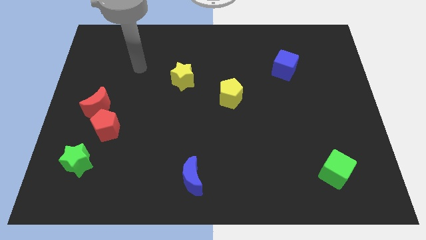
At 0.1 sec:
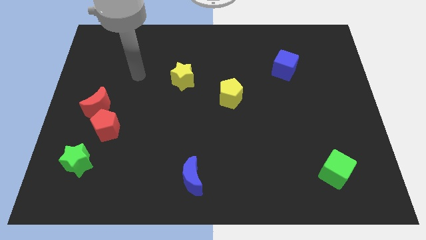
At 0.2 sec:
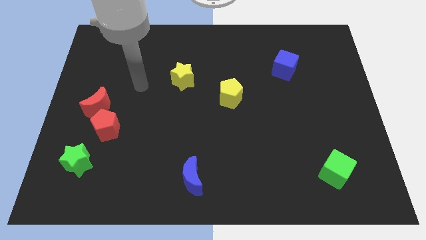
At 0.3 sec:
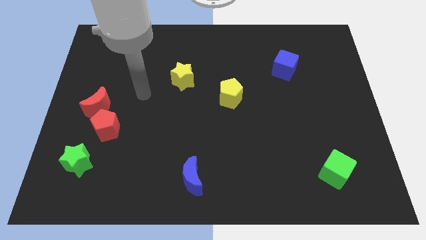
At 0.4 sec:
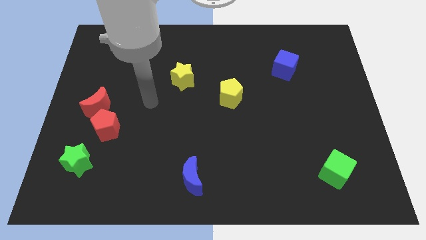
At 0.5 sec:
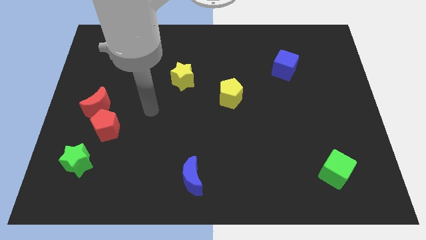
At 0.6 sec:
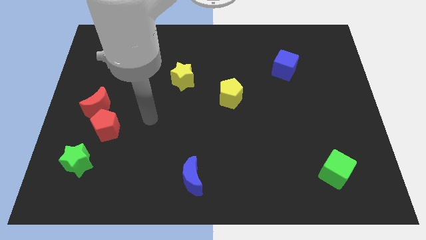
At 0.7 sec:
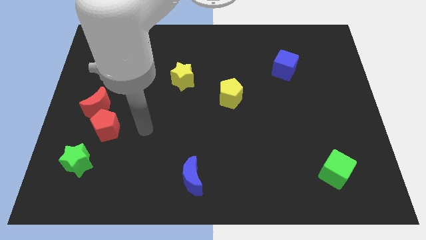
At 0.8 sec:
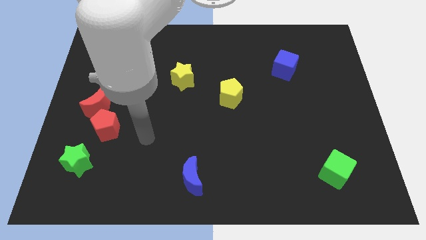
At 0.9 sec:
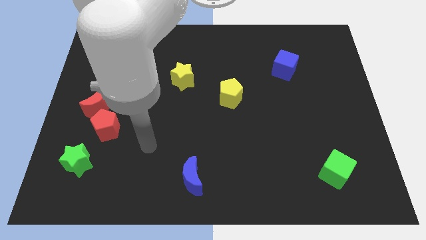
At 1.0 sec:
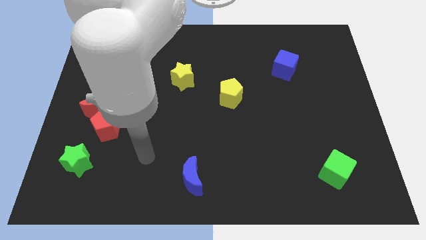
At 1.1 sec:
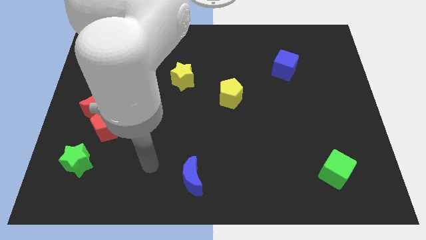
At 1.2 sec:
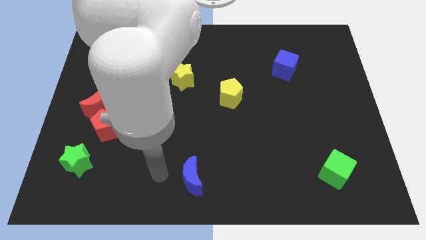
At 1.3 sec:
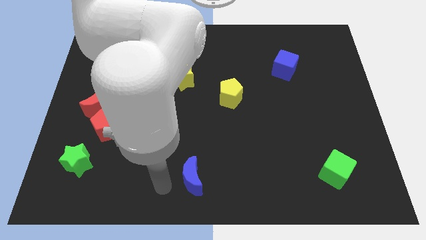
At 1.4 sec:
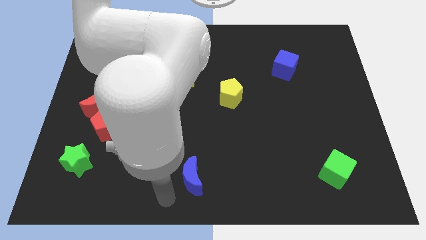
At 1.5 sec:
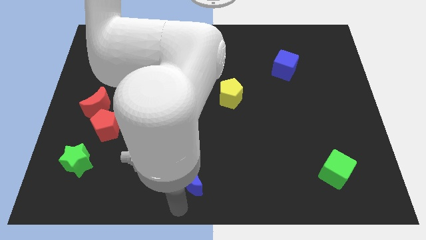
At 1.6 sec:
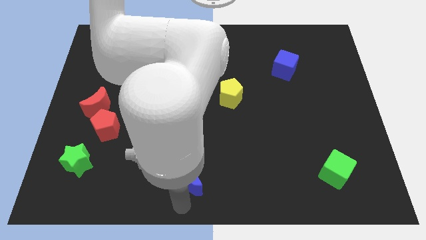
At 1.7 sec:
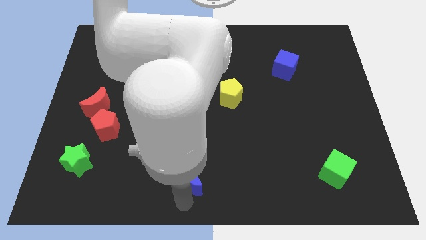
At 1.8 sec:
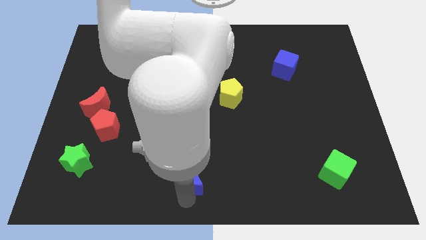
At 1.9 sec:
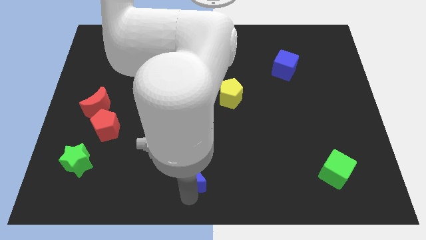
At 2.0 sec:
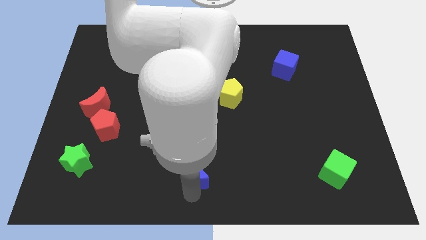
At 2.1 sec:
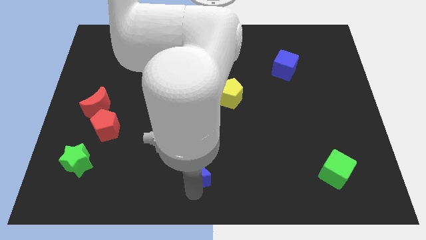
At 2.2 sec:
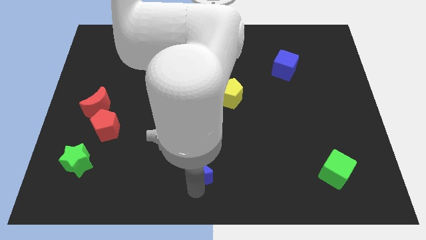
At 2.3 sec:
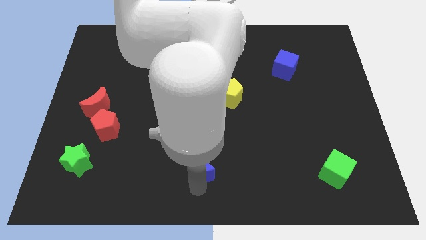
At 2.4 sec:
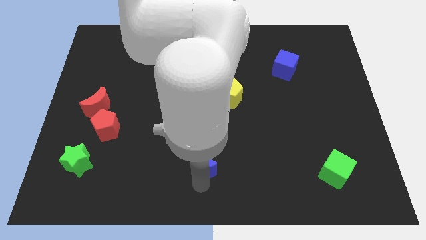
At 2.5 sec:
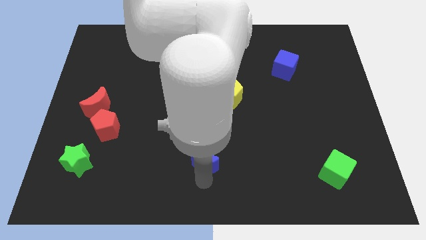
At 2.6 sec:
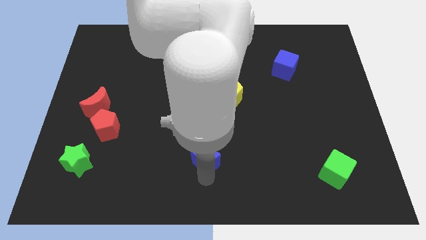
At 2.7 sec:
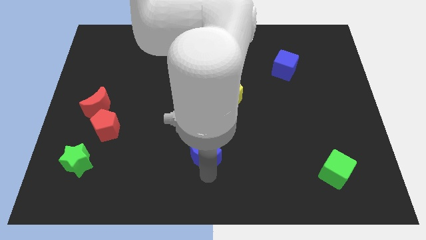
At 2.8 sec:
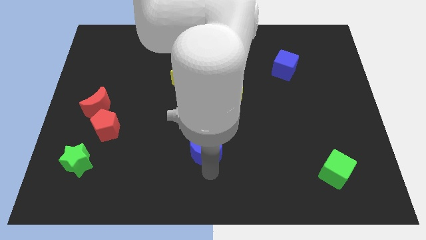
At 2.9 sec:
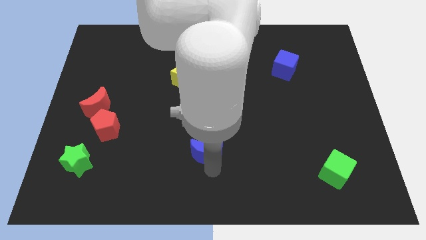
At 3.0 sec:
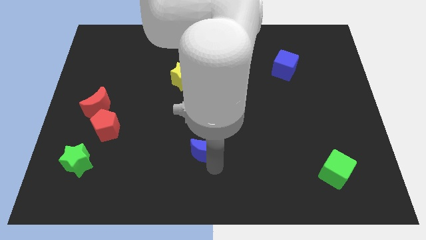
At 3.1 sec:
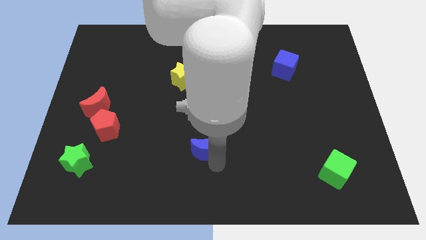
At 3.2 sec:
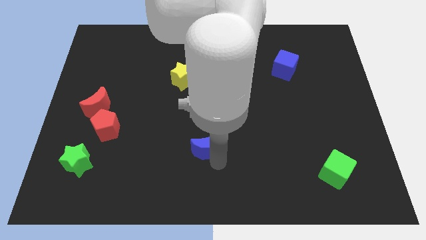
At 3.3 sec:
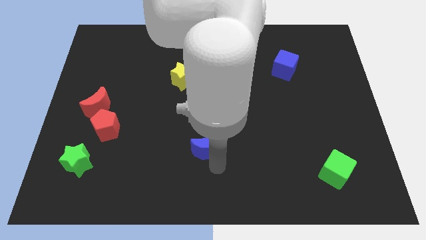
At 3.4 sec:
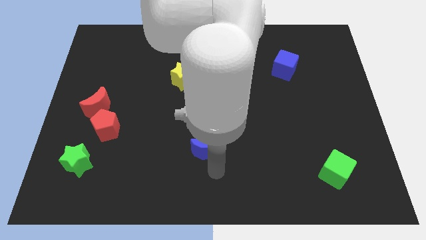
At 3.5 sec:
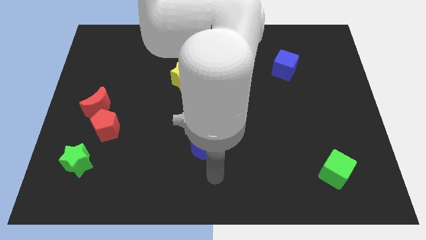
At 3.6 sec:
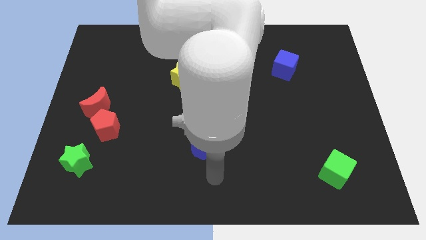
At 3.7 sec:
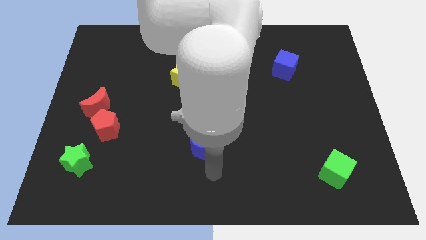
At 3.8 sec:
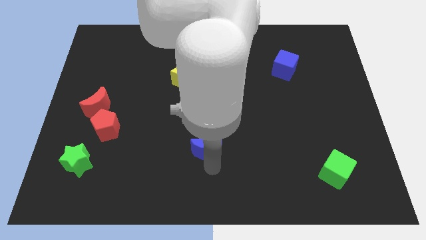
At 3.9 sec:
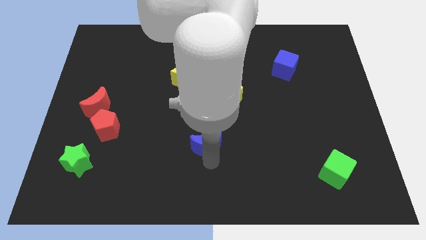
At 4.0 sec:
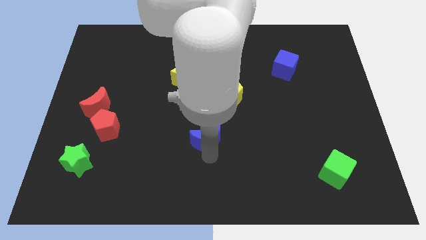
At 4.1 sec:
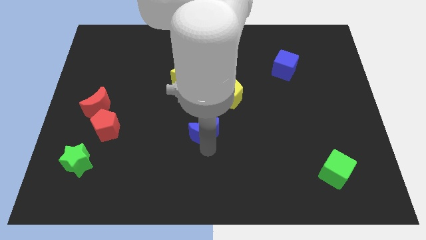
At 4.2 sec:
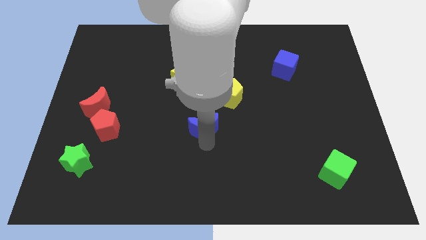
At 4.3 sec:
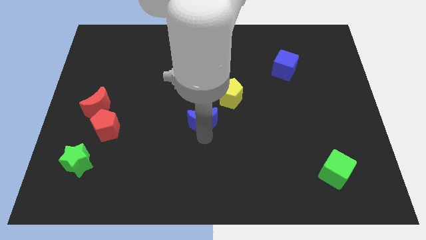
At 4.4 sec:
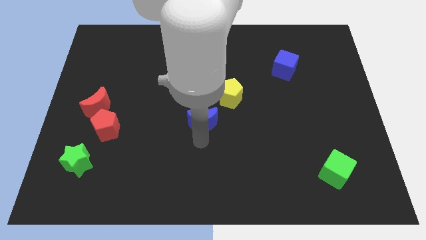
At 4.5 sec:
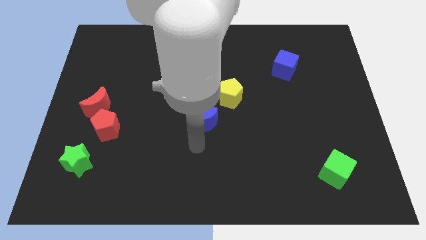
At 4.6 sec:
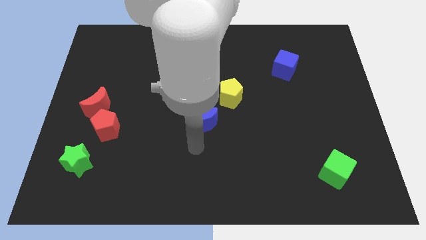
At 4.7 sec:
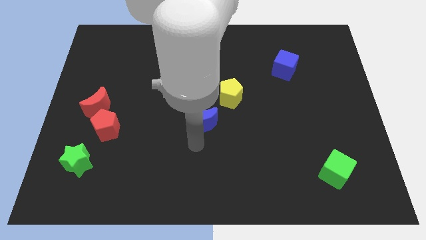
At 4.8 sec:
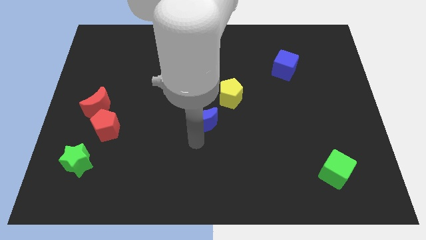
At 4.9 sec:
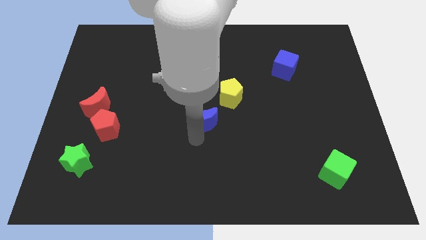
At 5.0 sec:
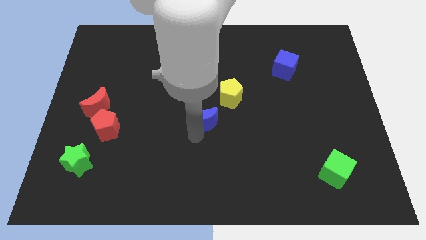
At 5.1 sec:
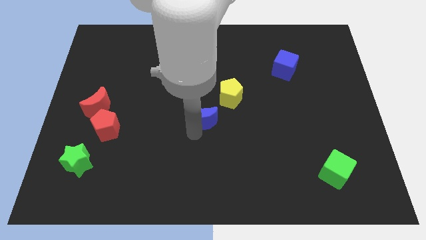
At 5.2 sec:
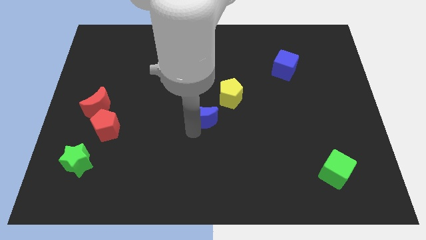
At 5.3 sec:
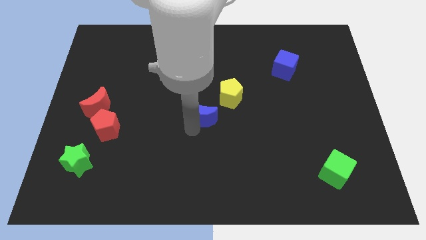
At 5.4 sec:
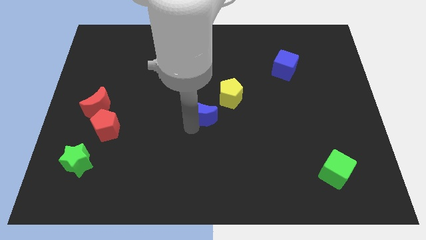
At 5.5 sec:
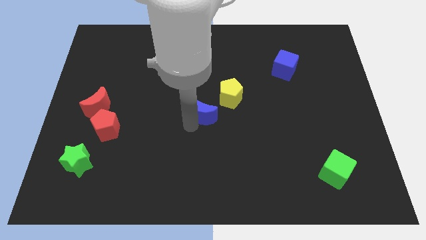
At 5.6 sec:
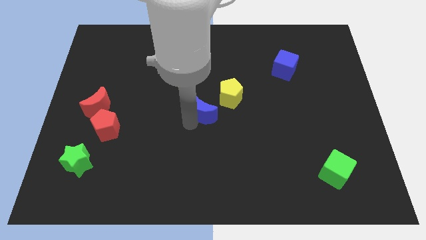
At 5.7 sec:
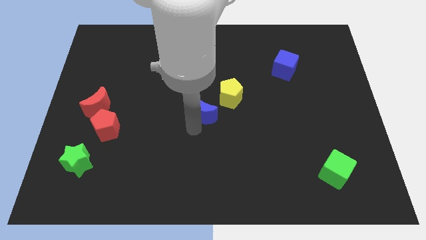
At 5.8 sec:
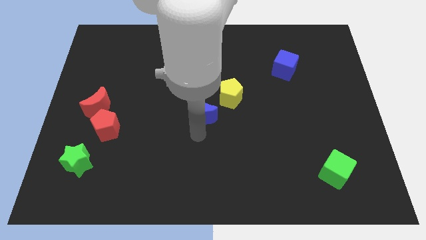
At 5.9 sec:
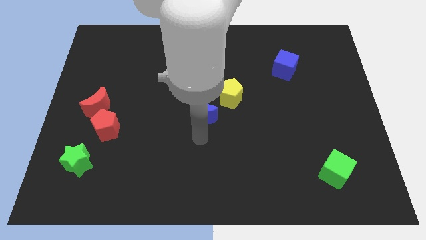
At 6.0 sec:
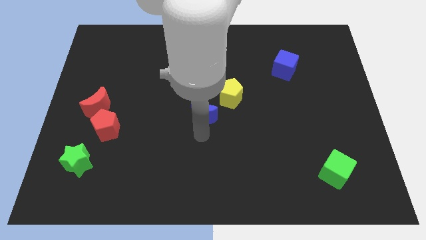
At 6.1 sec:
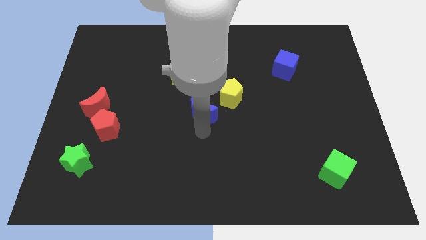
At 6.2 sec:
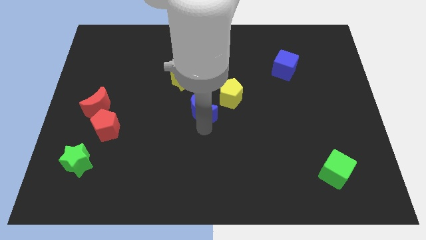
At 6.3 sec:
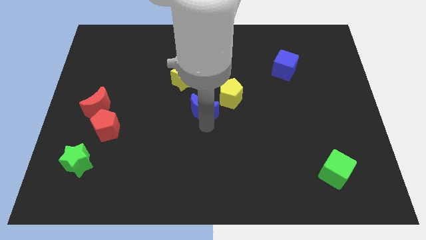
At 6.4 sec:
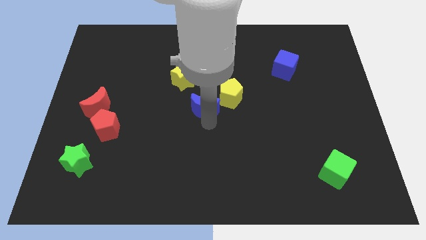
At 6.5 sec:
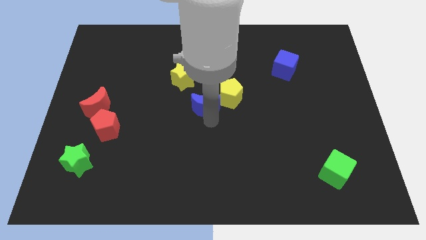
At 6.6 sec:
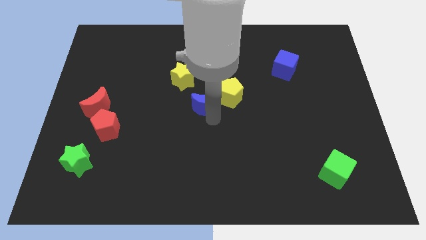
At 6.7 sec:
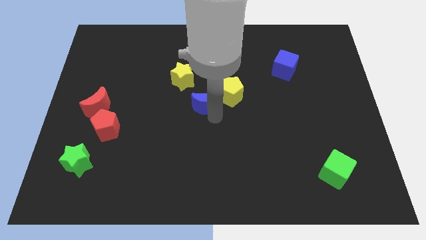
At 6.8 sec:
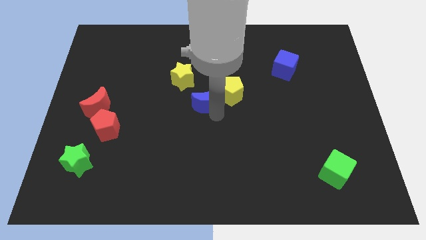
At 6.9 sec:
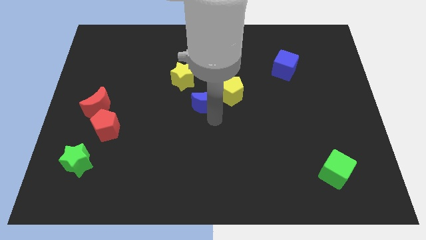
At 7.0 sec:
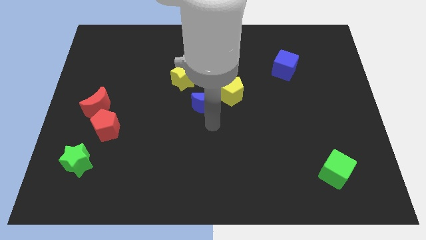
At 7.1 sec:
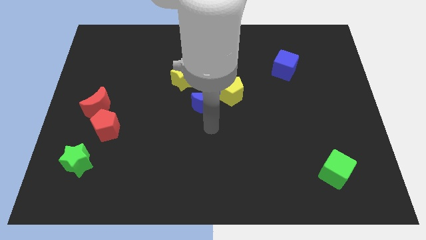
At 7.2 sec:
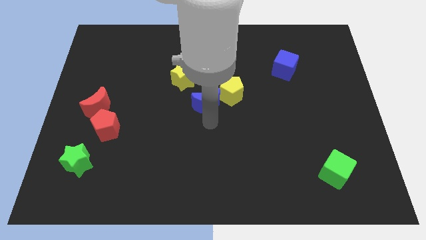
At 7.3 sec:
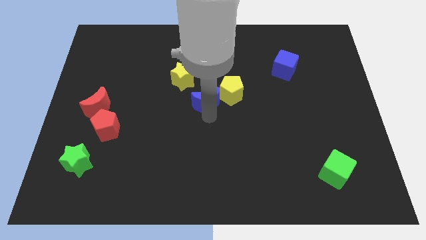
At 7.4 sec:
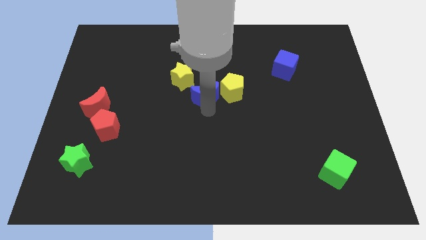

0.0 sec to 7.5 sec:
push the blue moon up

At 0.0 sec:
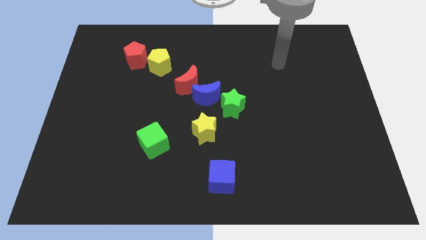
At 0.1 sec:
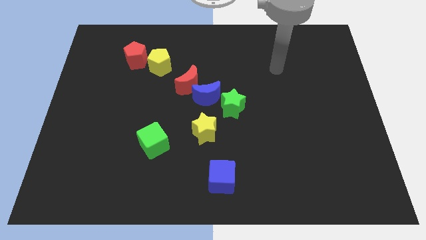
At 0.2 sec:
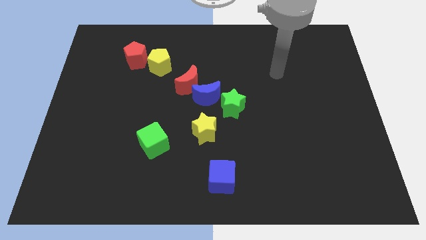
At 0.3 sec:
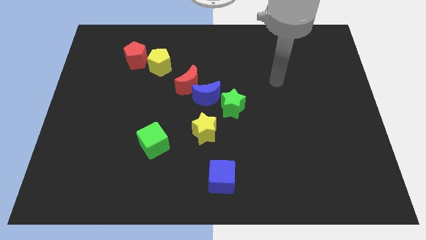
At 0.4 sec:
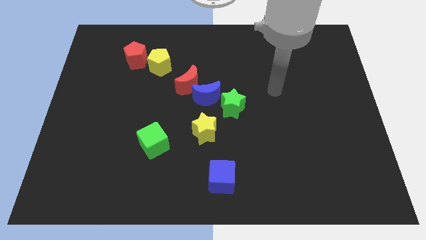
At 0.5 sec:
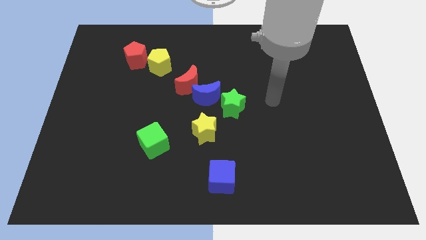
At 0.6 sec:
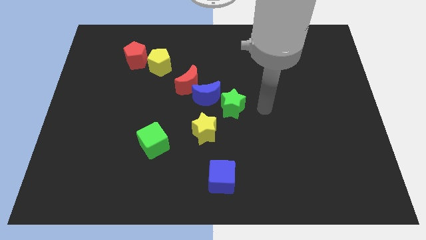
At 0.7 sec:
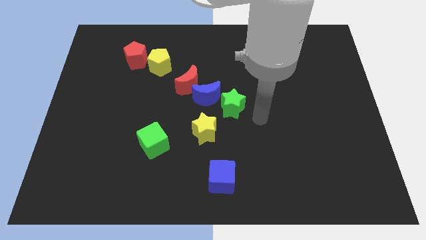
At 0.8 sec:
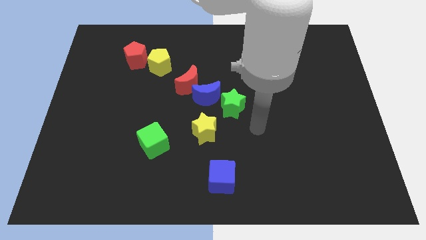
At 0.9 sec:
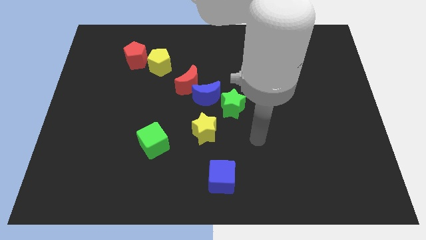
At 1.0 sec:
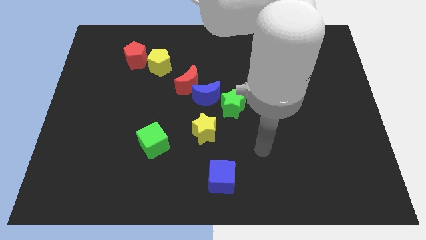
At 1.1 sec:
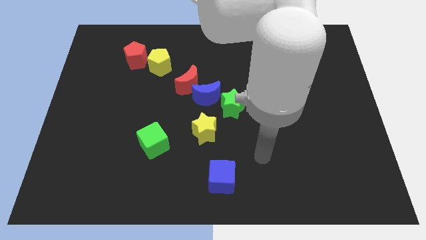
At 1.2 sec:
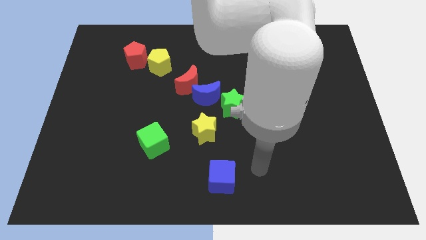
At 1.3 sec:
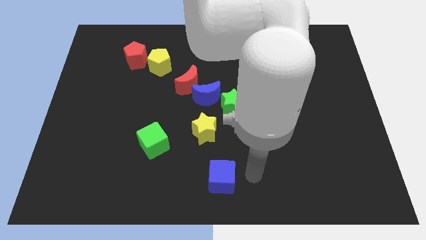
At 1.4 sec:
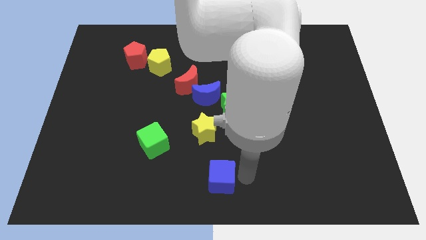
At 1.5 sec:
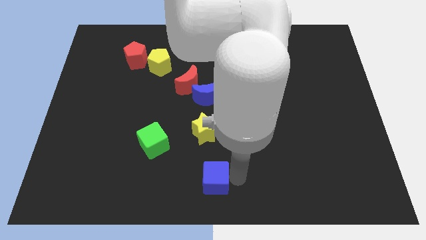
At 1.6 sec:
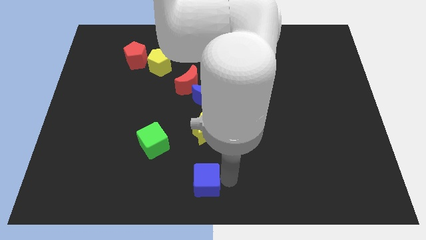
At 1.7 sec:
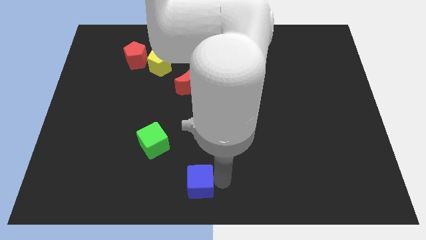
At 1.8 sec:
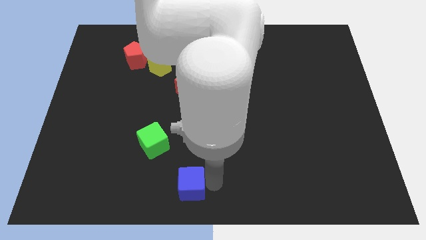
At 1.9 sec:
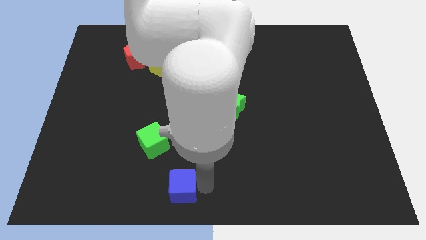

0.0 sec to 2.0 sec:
slide the blue cube to the left slightly
